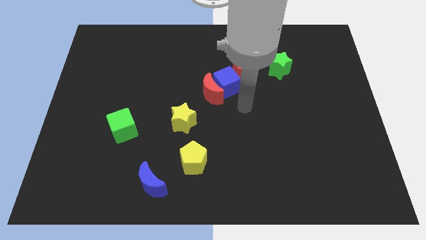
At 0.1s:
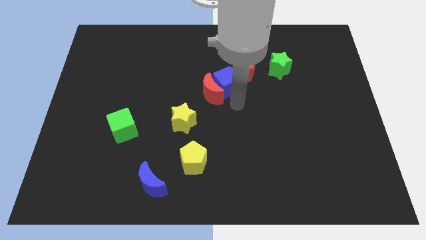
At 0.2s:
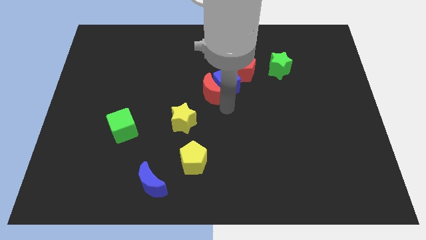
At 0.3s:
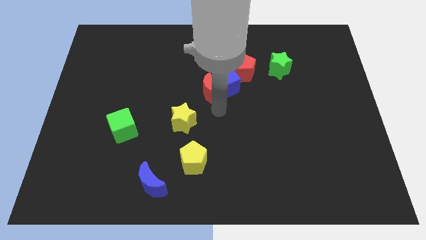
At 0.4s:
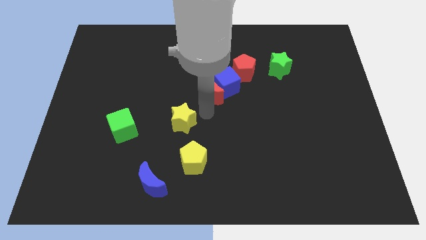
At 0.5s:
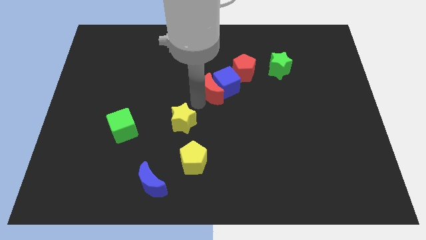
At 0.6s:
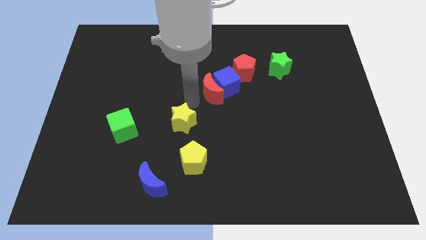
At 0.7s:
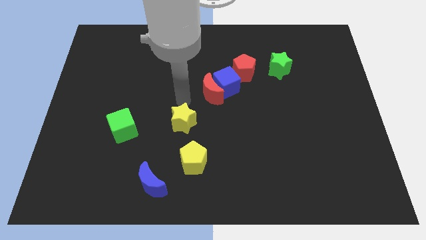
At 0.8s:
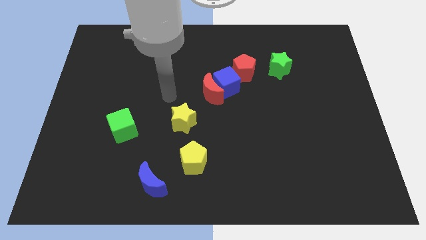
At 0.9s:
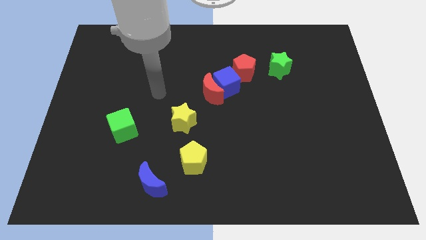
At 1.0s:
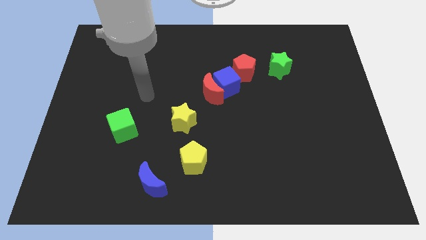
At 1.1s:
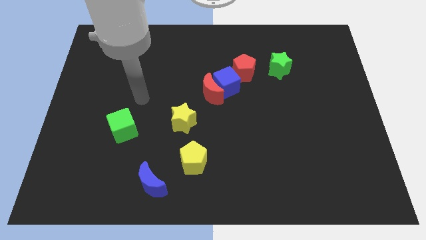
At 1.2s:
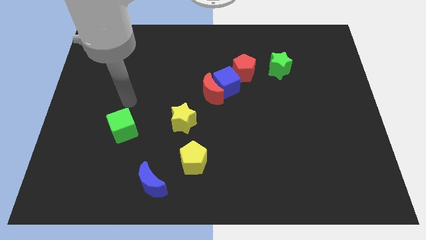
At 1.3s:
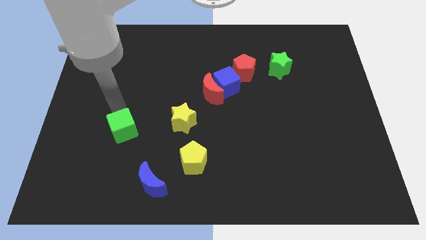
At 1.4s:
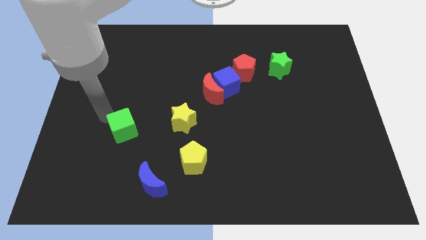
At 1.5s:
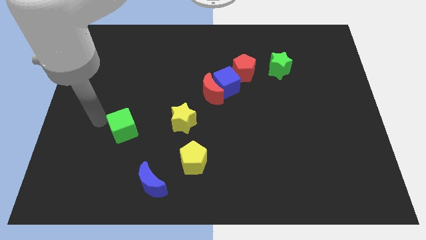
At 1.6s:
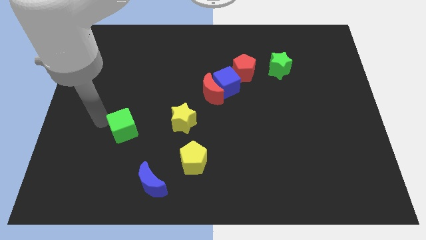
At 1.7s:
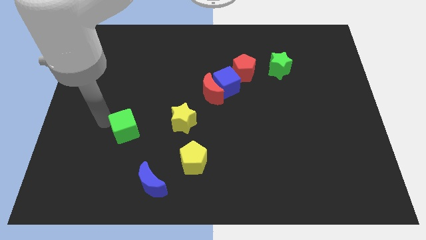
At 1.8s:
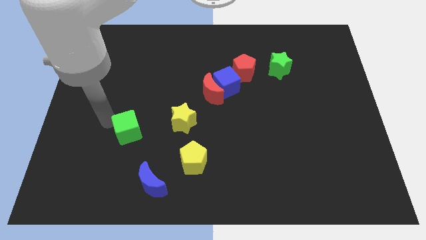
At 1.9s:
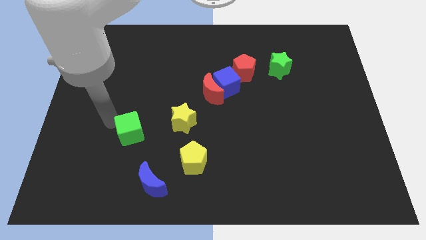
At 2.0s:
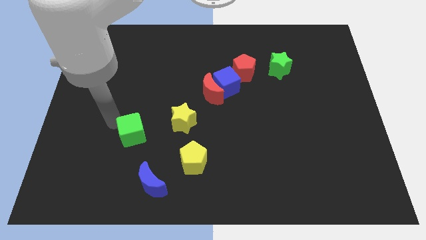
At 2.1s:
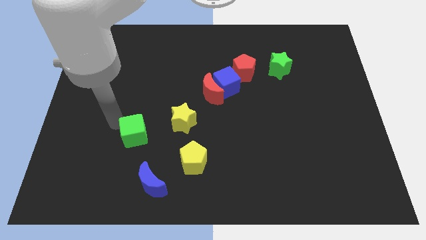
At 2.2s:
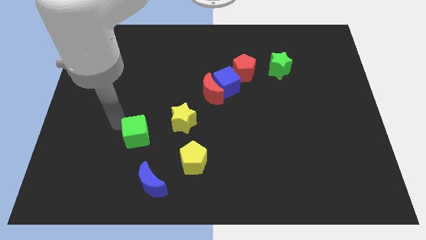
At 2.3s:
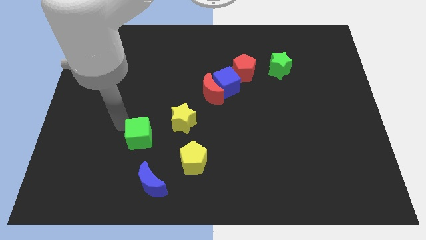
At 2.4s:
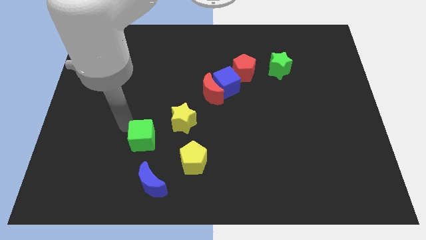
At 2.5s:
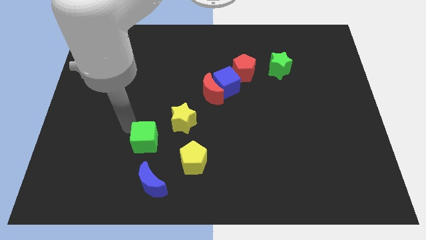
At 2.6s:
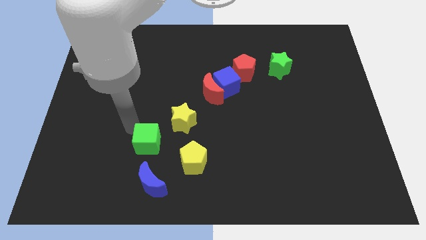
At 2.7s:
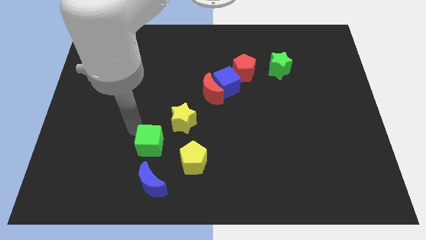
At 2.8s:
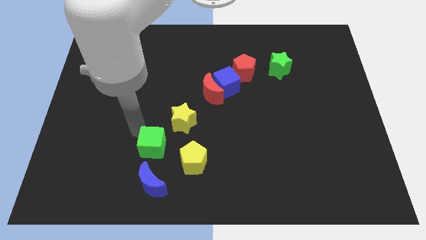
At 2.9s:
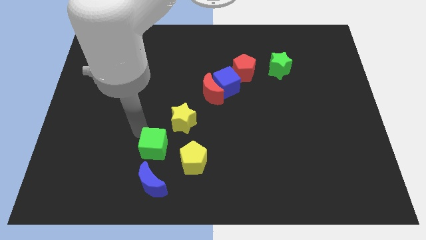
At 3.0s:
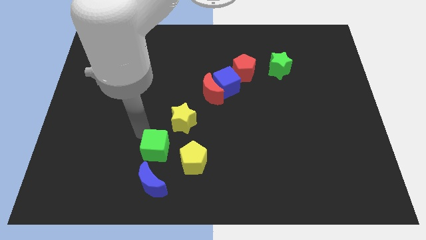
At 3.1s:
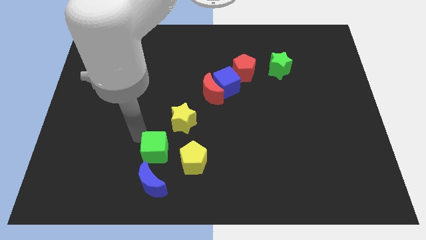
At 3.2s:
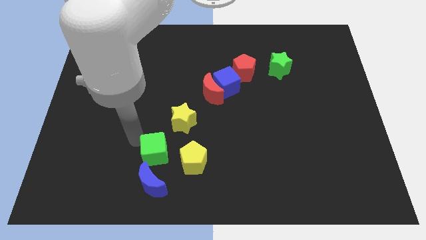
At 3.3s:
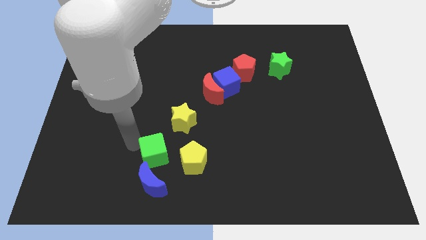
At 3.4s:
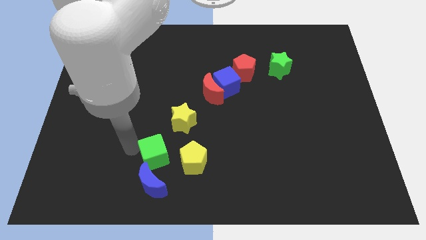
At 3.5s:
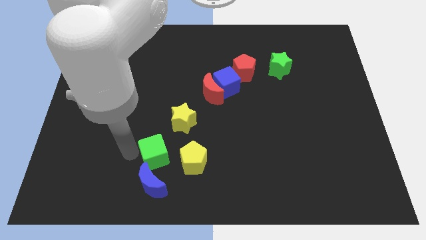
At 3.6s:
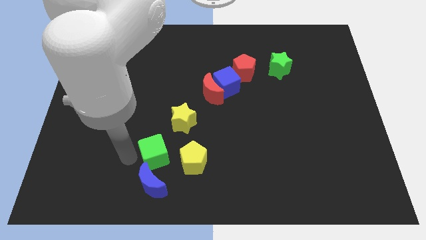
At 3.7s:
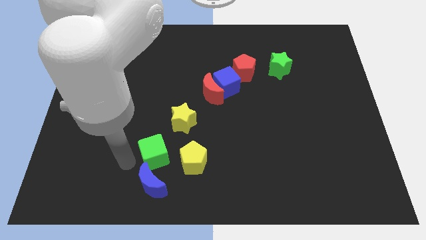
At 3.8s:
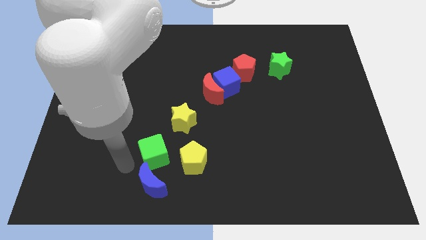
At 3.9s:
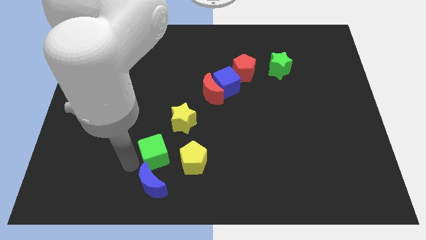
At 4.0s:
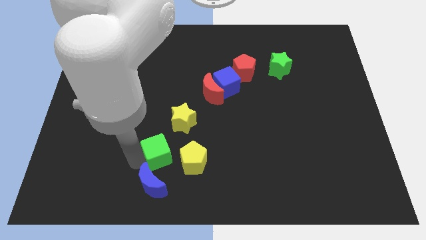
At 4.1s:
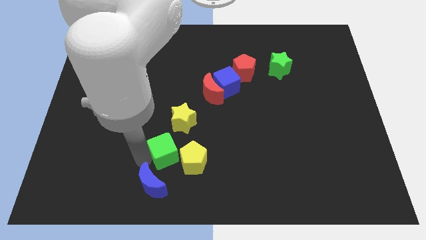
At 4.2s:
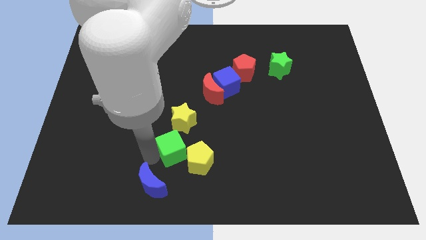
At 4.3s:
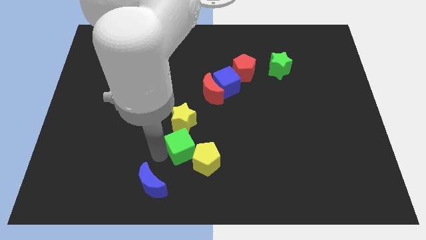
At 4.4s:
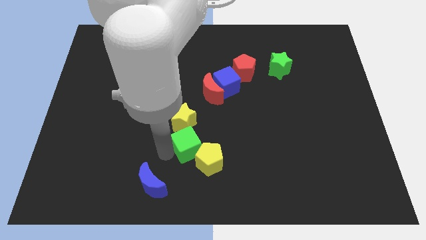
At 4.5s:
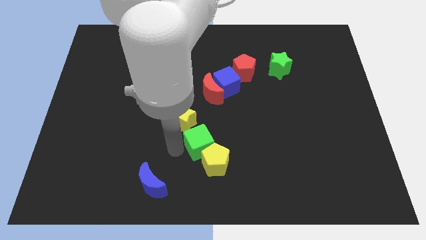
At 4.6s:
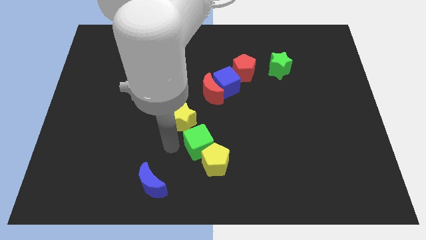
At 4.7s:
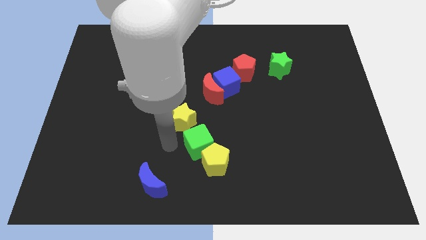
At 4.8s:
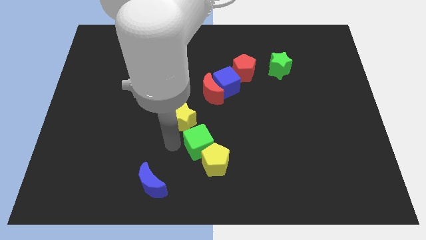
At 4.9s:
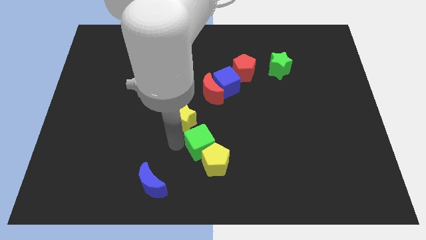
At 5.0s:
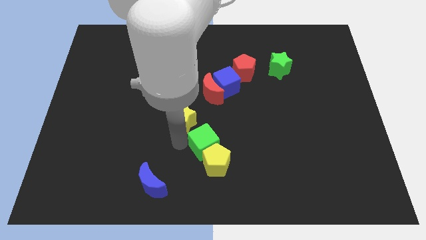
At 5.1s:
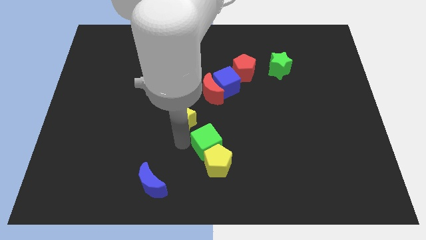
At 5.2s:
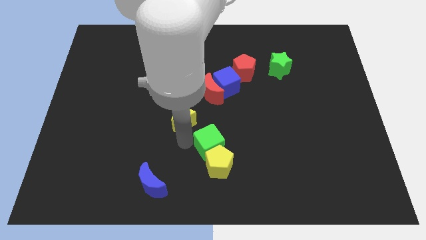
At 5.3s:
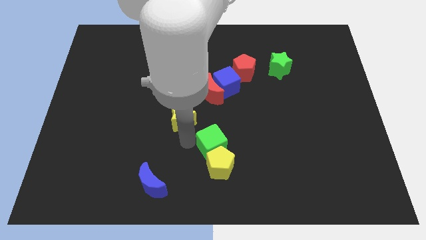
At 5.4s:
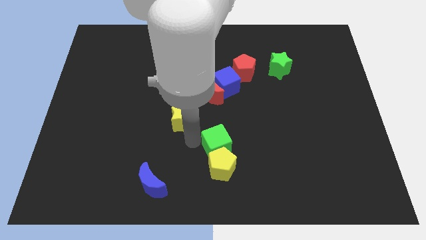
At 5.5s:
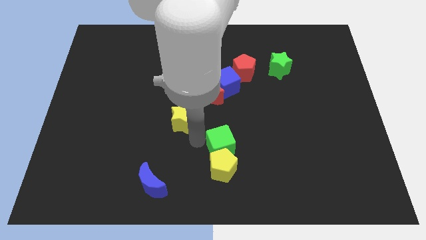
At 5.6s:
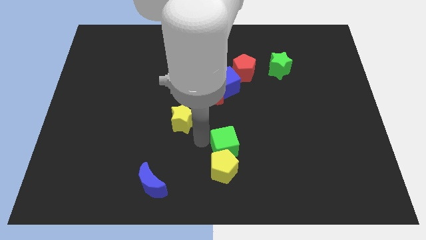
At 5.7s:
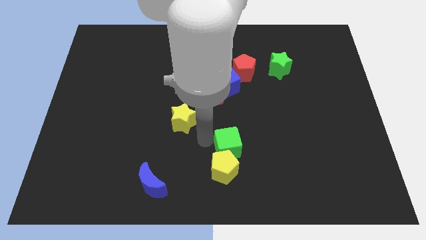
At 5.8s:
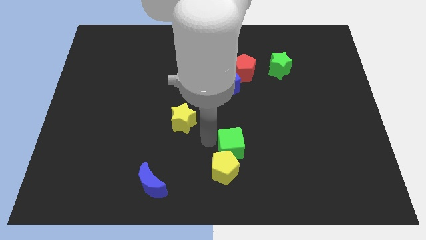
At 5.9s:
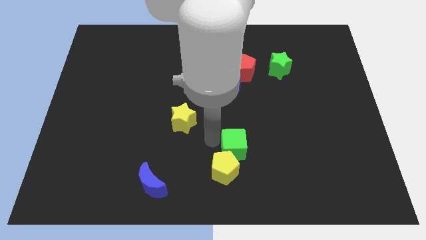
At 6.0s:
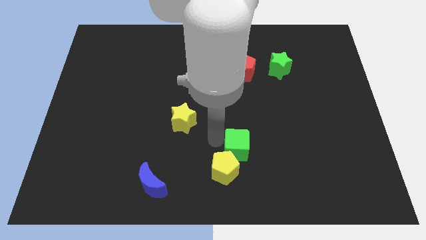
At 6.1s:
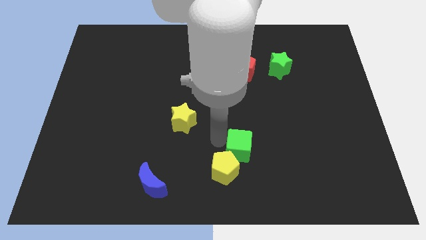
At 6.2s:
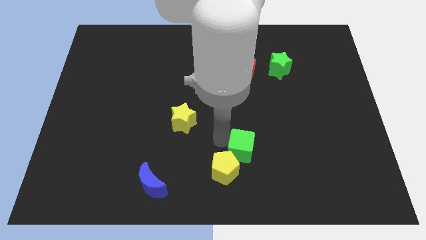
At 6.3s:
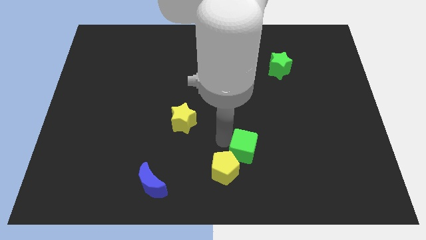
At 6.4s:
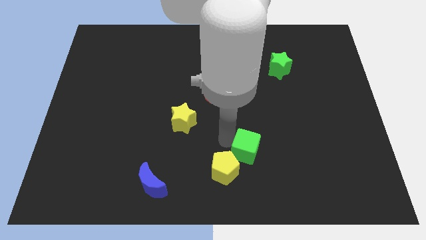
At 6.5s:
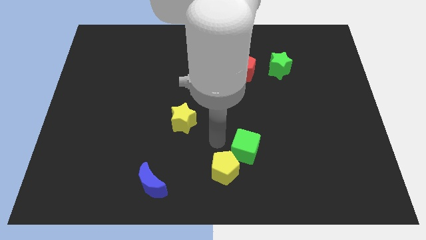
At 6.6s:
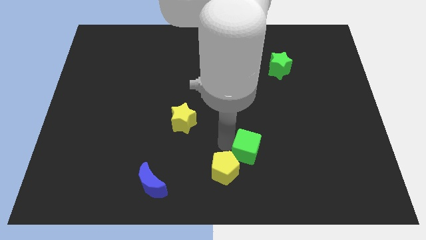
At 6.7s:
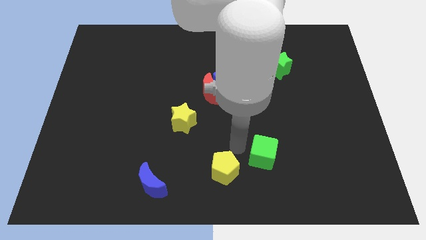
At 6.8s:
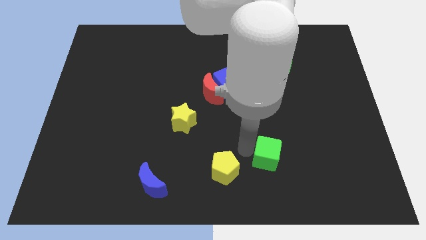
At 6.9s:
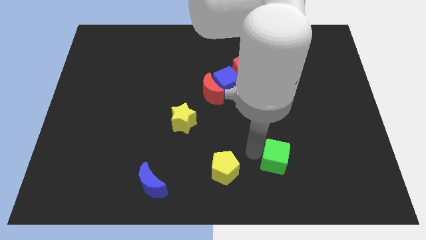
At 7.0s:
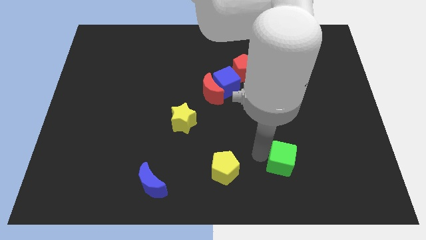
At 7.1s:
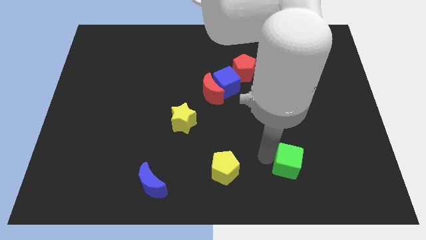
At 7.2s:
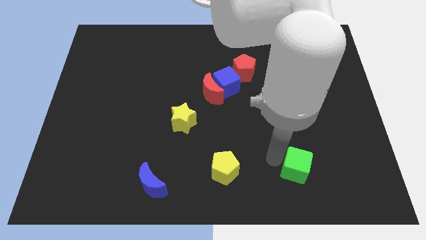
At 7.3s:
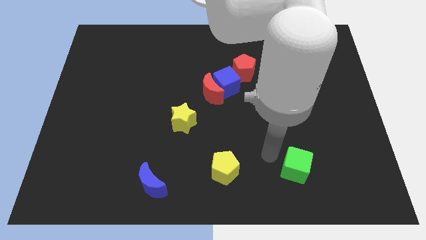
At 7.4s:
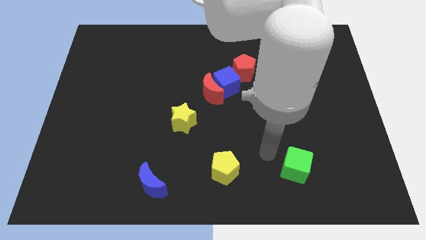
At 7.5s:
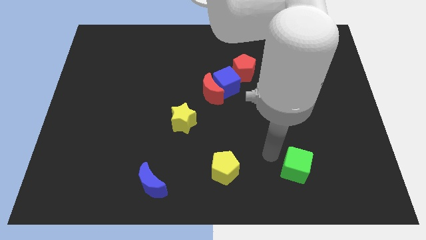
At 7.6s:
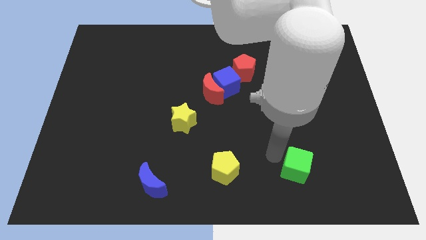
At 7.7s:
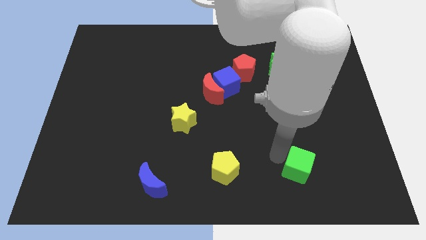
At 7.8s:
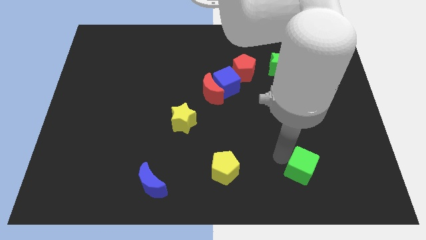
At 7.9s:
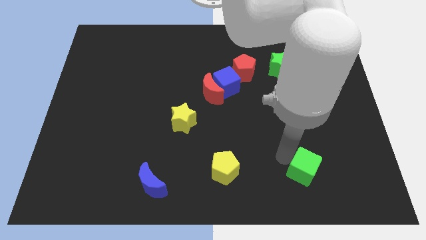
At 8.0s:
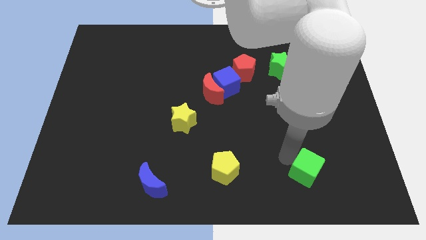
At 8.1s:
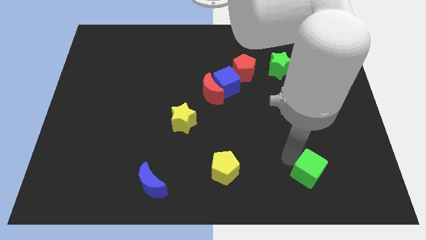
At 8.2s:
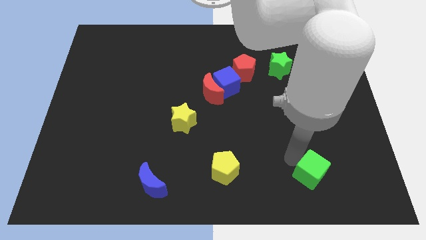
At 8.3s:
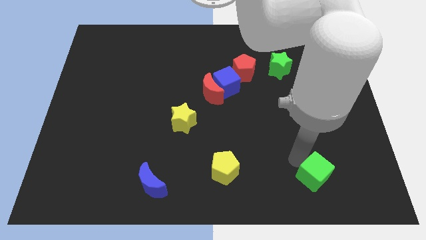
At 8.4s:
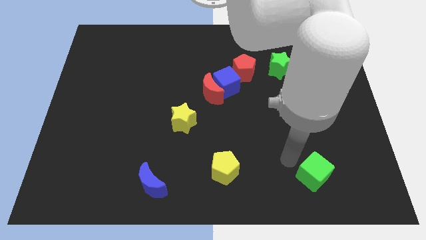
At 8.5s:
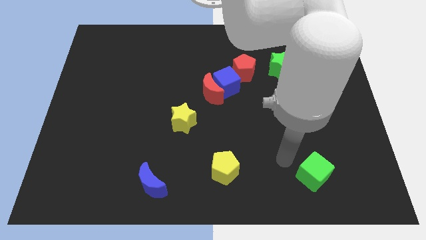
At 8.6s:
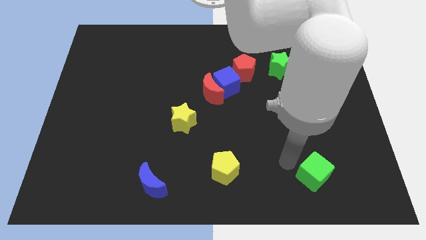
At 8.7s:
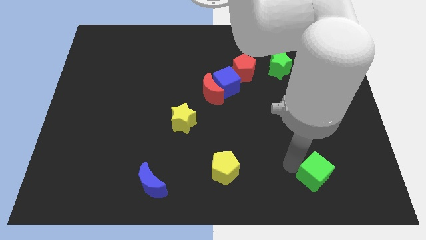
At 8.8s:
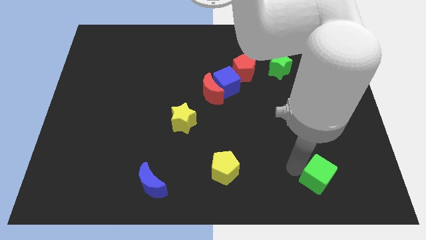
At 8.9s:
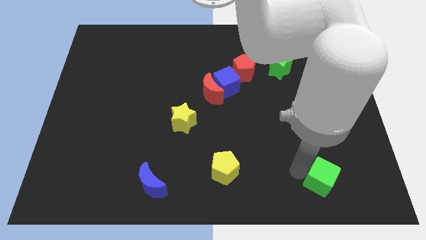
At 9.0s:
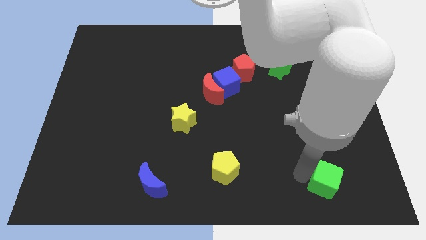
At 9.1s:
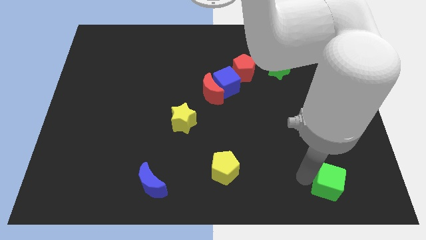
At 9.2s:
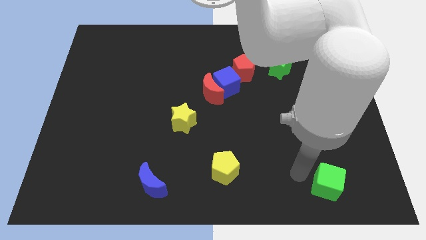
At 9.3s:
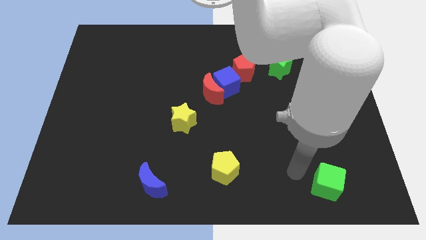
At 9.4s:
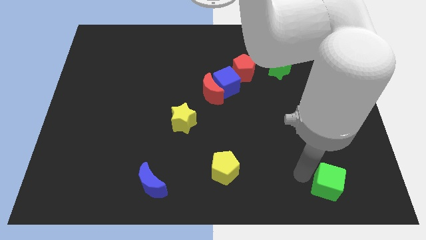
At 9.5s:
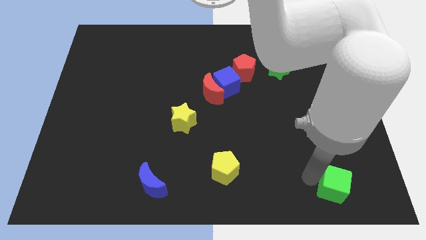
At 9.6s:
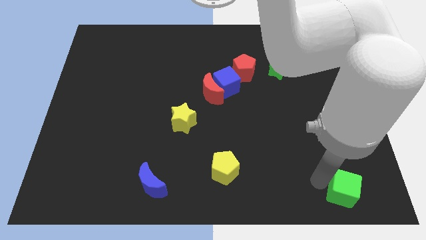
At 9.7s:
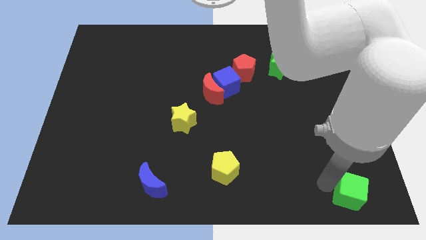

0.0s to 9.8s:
push the green cube to the bottom right of the board
